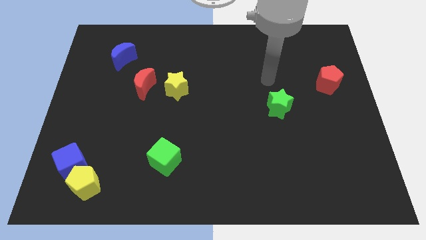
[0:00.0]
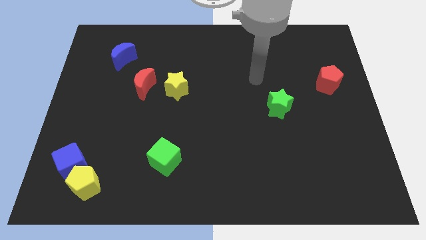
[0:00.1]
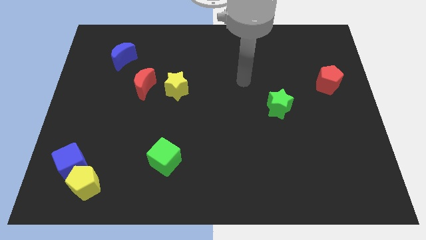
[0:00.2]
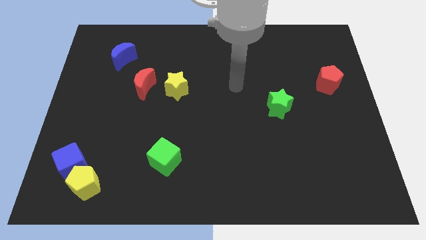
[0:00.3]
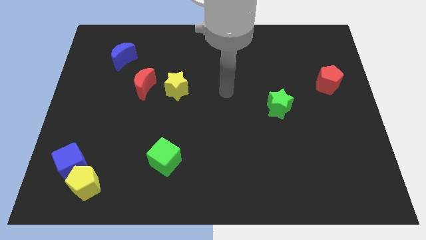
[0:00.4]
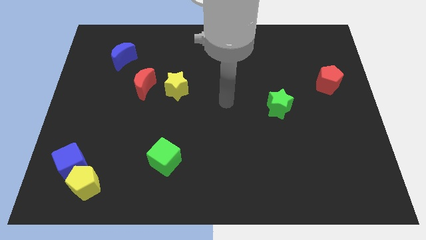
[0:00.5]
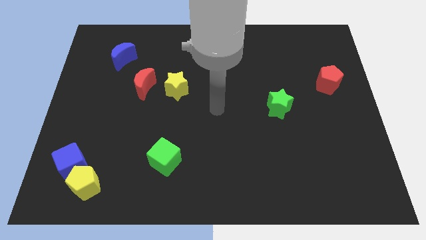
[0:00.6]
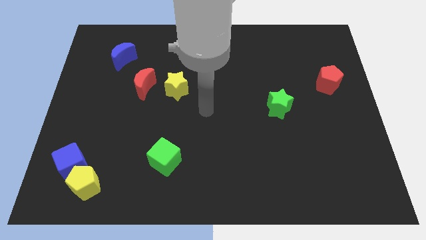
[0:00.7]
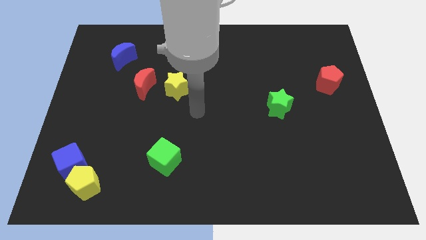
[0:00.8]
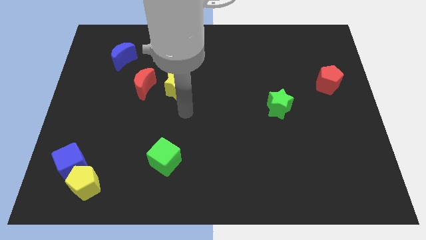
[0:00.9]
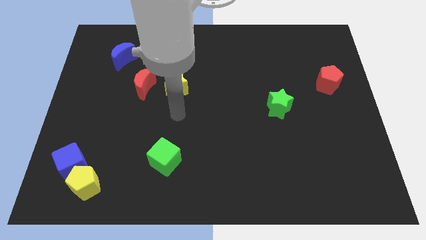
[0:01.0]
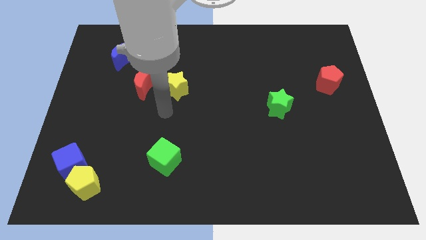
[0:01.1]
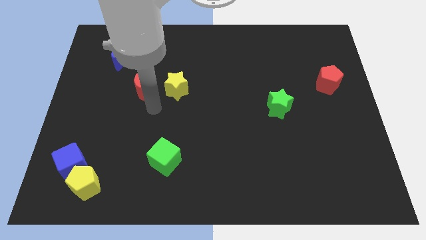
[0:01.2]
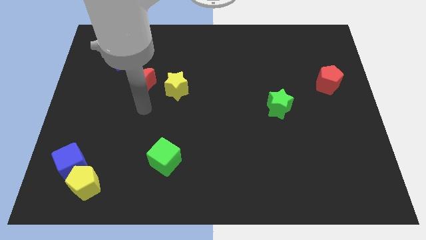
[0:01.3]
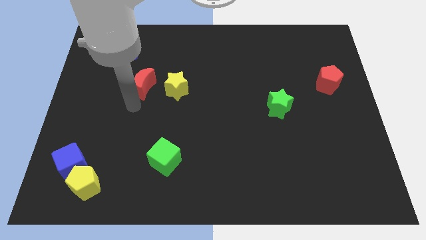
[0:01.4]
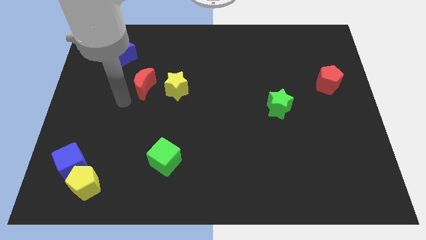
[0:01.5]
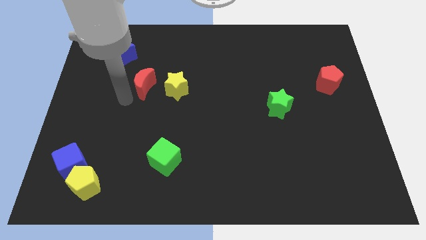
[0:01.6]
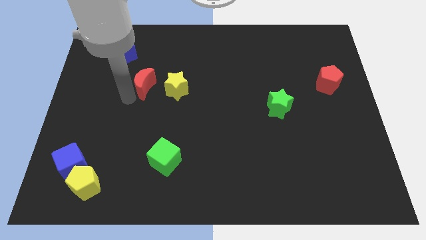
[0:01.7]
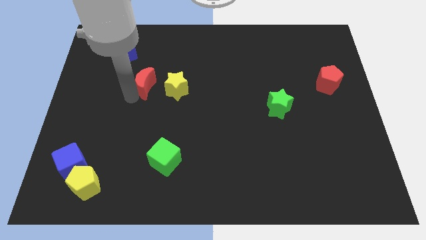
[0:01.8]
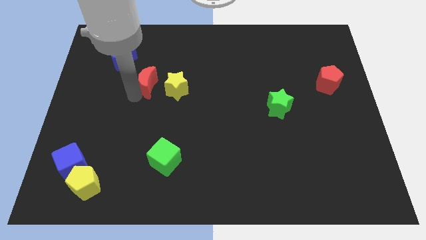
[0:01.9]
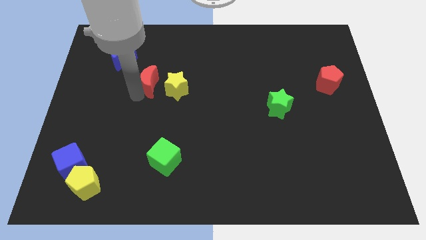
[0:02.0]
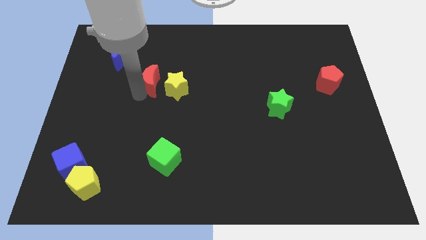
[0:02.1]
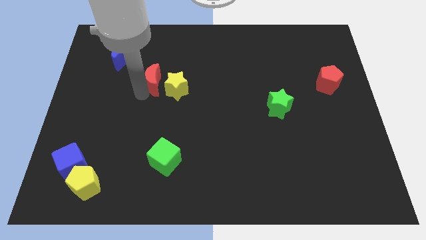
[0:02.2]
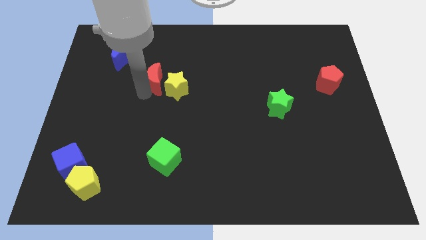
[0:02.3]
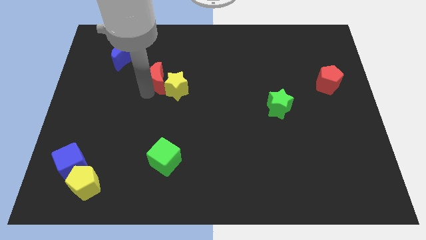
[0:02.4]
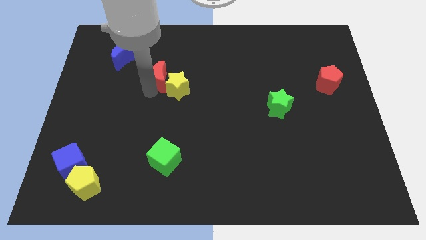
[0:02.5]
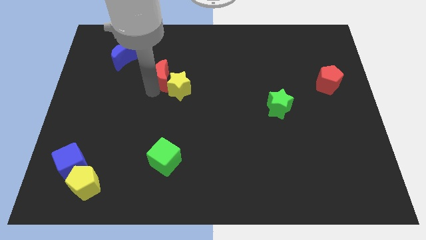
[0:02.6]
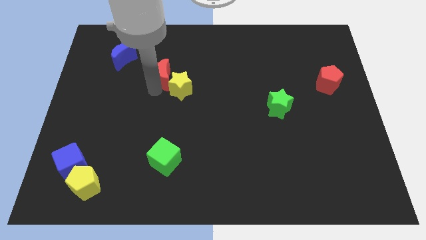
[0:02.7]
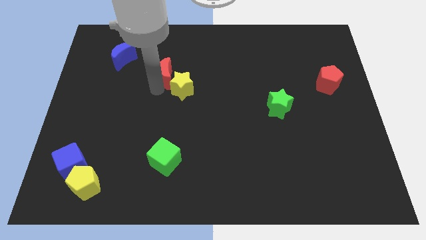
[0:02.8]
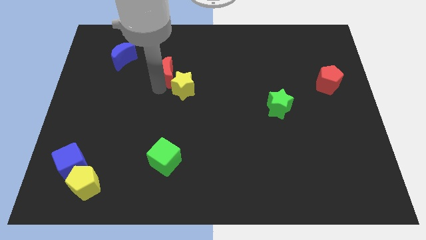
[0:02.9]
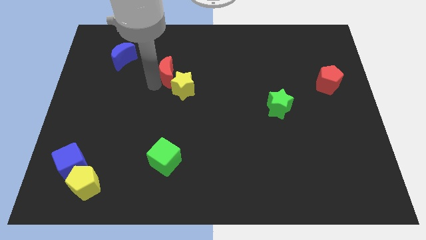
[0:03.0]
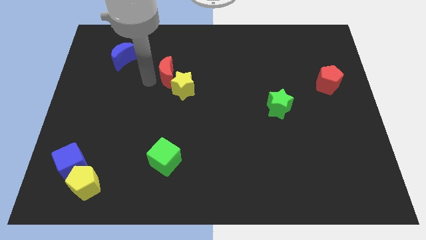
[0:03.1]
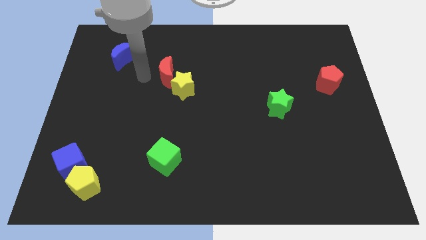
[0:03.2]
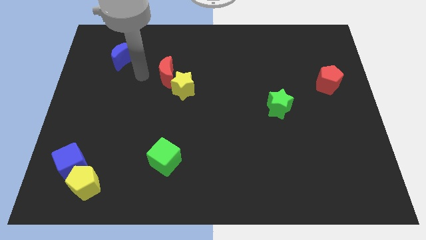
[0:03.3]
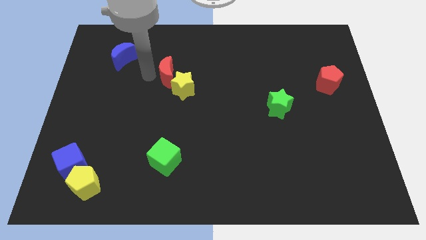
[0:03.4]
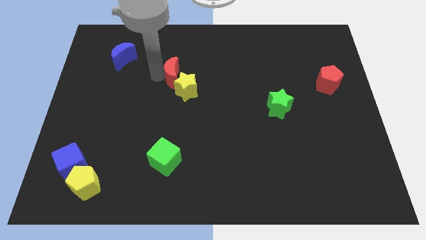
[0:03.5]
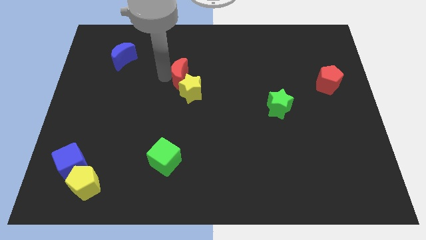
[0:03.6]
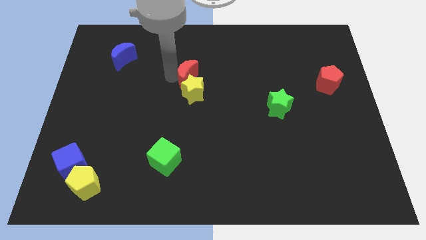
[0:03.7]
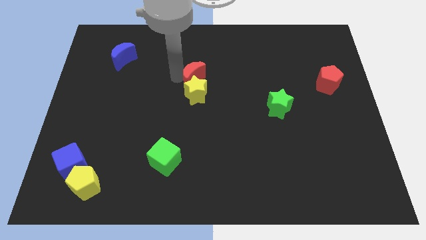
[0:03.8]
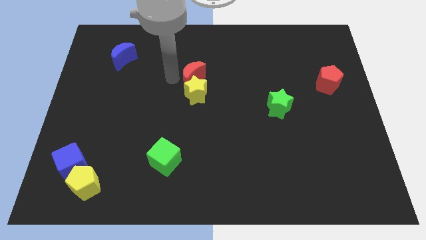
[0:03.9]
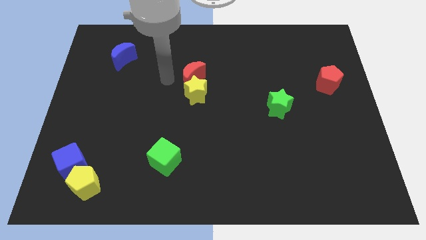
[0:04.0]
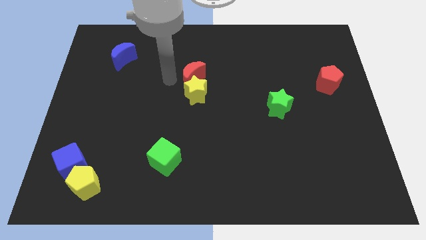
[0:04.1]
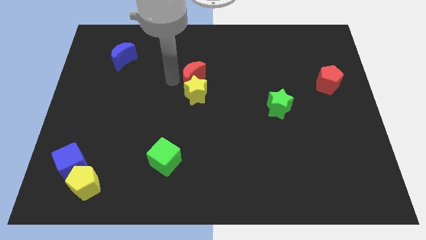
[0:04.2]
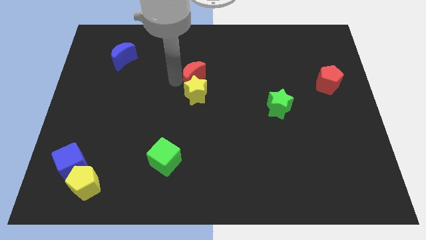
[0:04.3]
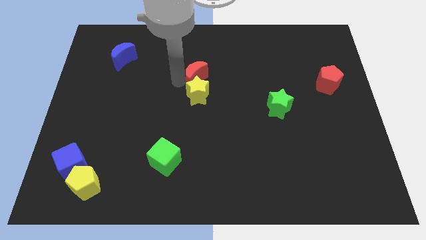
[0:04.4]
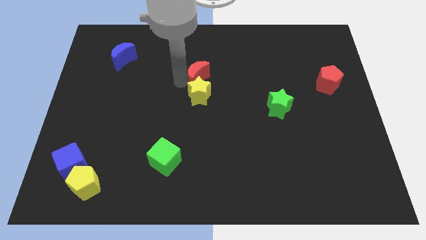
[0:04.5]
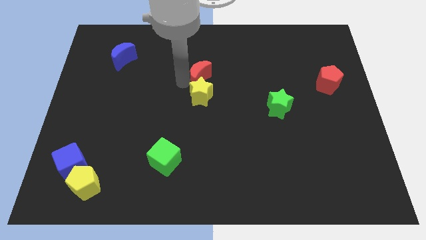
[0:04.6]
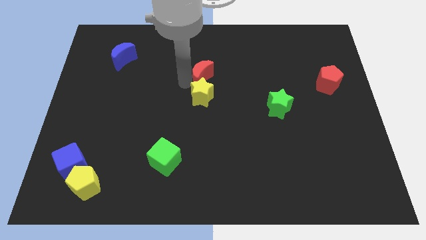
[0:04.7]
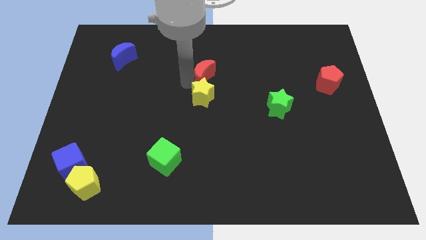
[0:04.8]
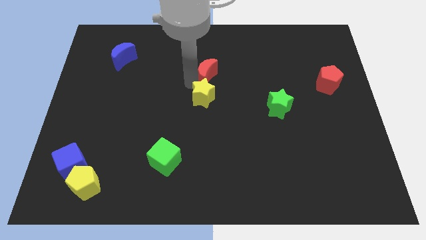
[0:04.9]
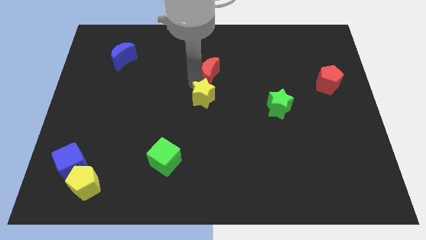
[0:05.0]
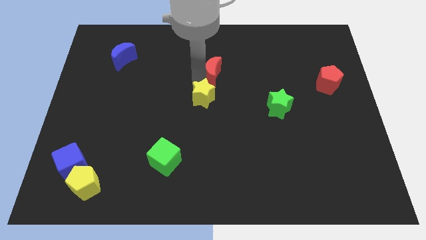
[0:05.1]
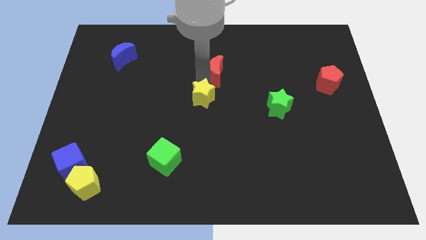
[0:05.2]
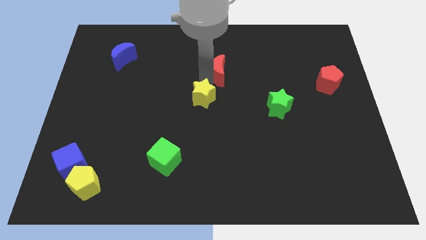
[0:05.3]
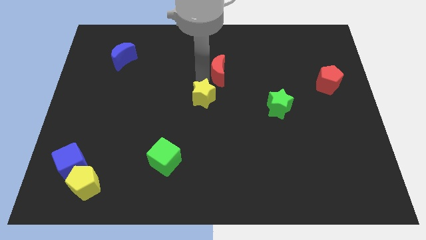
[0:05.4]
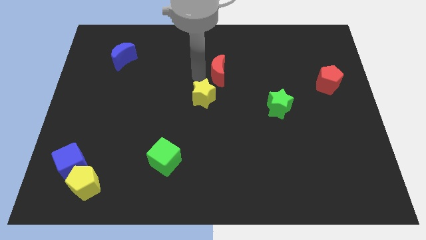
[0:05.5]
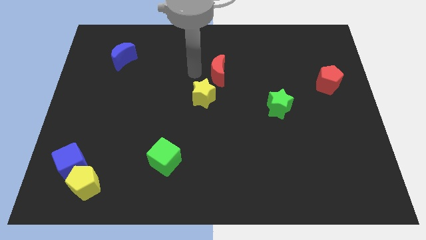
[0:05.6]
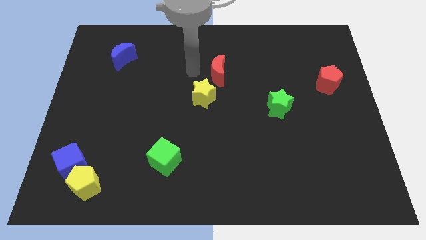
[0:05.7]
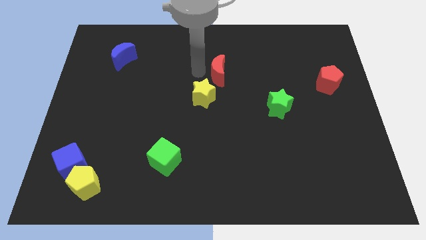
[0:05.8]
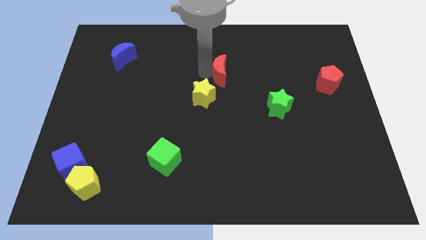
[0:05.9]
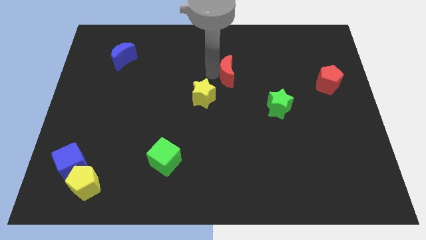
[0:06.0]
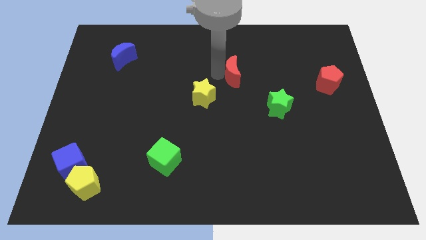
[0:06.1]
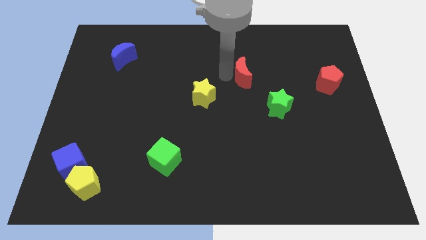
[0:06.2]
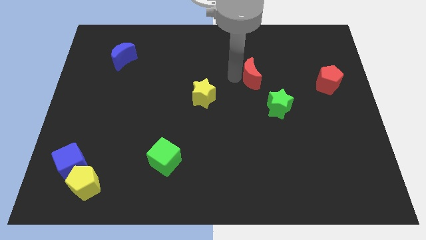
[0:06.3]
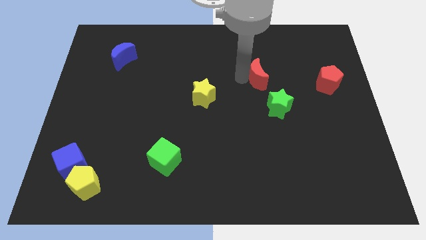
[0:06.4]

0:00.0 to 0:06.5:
push the red moon to the top of the green star
